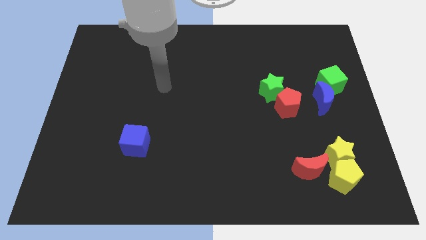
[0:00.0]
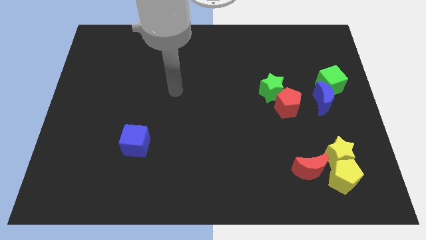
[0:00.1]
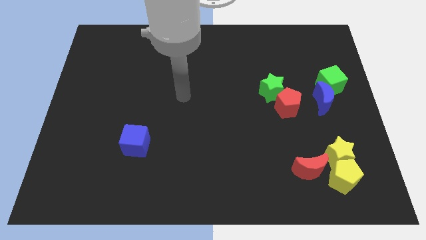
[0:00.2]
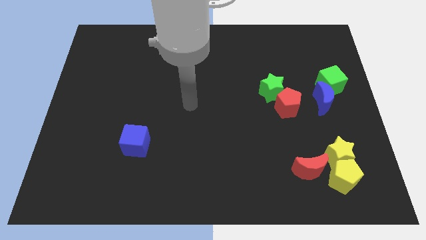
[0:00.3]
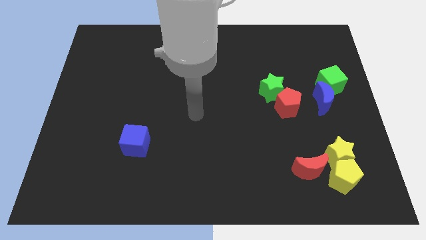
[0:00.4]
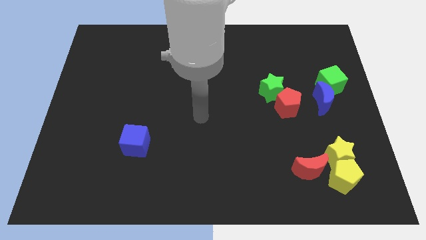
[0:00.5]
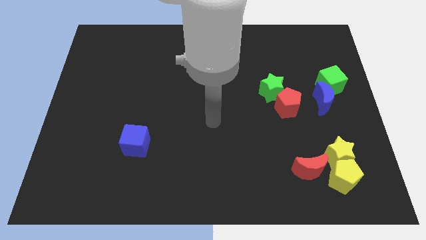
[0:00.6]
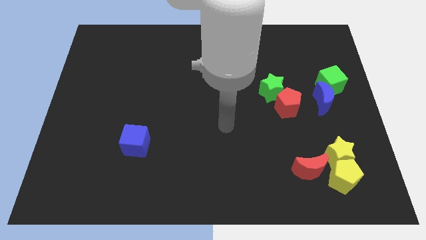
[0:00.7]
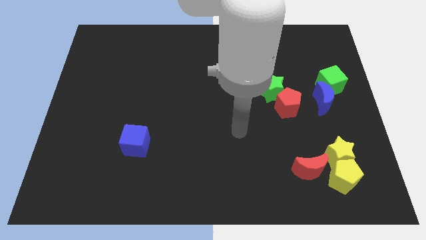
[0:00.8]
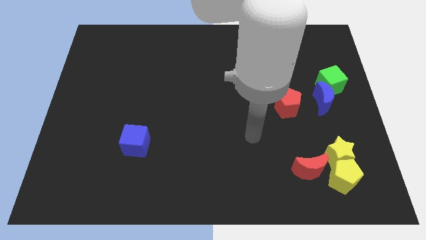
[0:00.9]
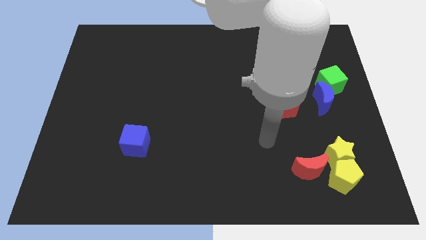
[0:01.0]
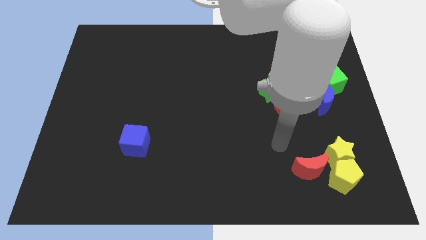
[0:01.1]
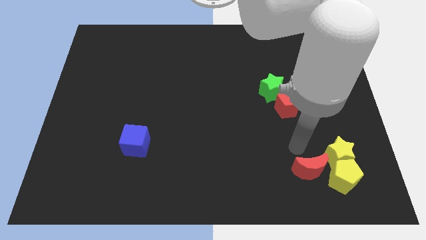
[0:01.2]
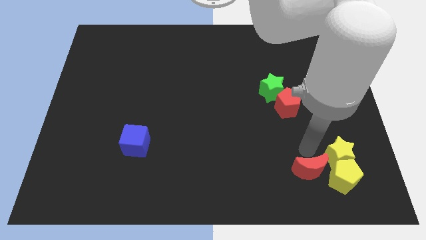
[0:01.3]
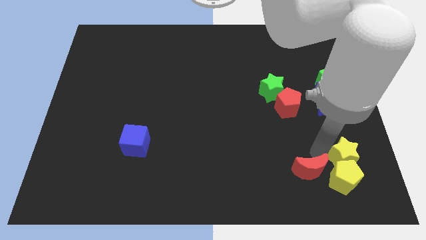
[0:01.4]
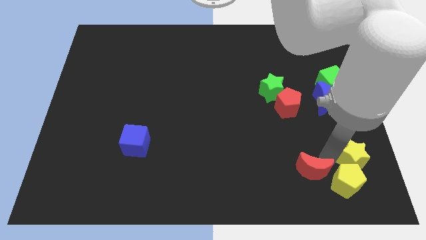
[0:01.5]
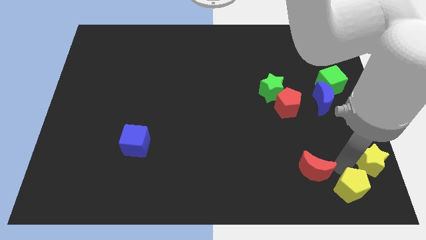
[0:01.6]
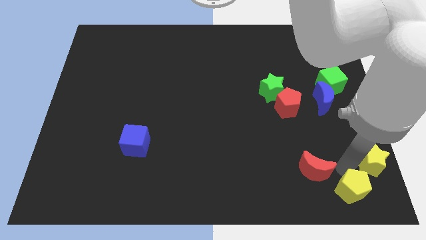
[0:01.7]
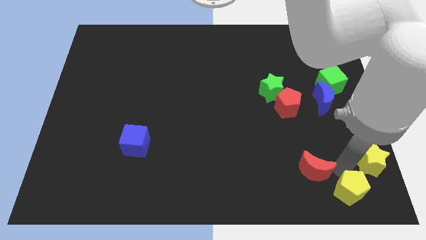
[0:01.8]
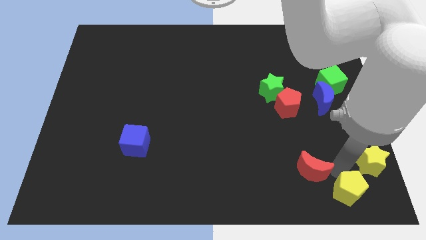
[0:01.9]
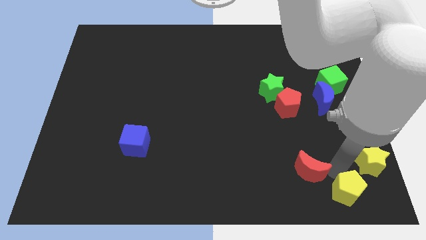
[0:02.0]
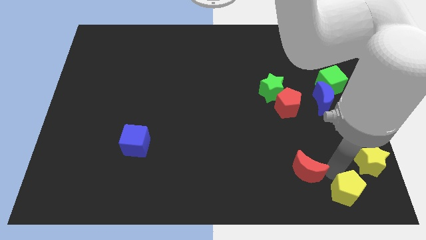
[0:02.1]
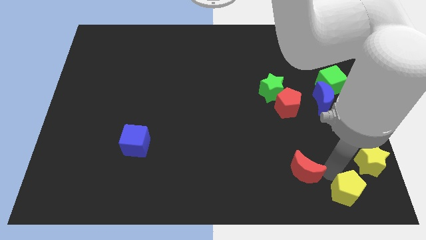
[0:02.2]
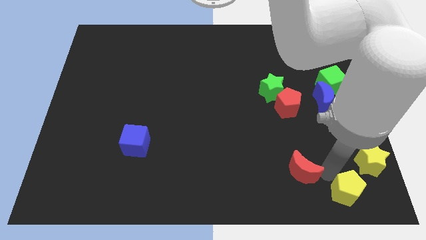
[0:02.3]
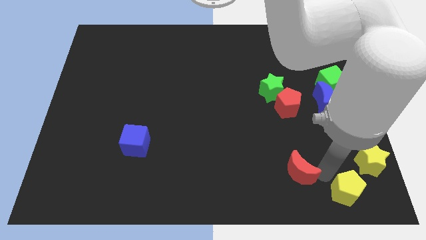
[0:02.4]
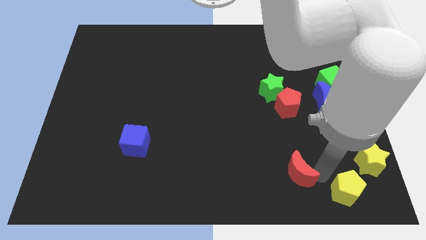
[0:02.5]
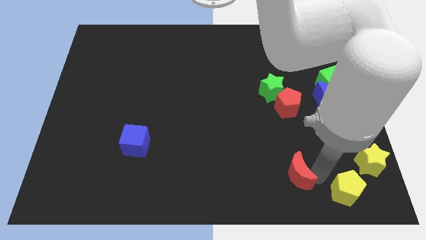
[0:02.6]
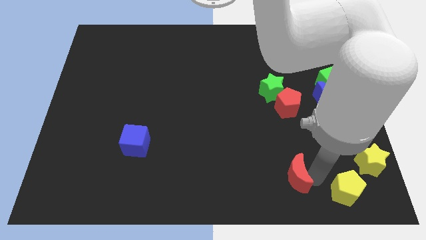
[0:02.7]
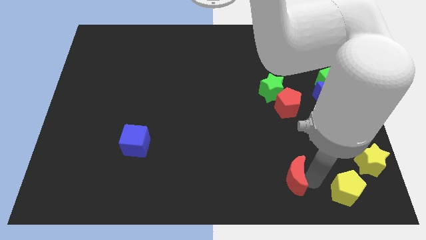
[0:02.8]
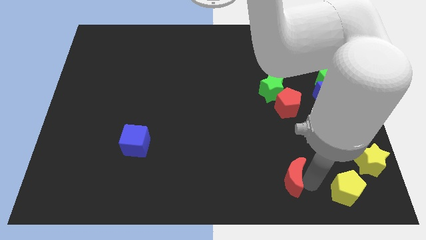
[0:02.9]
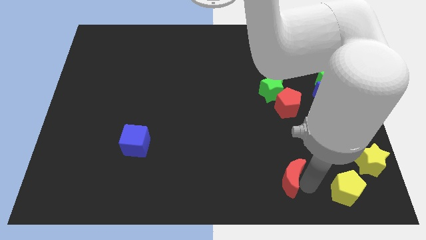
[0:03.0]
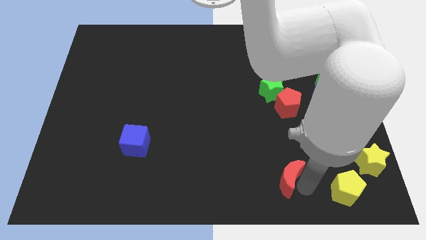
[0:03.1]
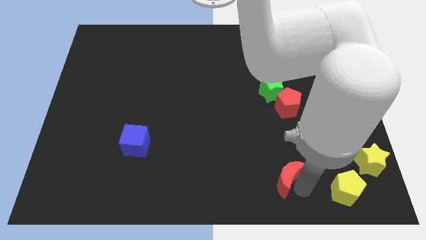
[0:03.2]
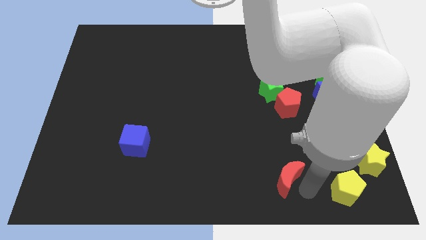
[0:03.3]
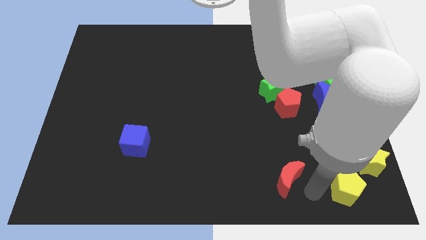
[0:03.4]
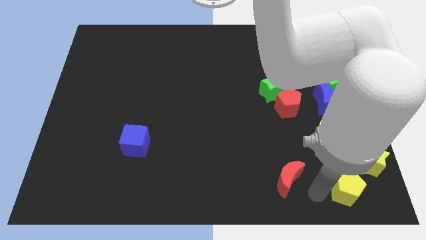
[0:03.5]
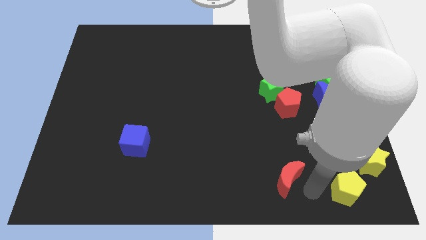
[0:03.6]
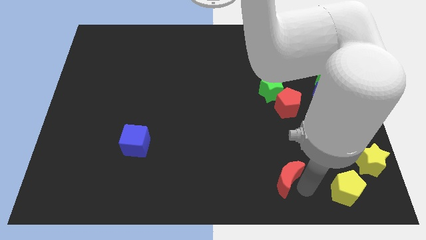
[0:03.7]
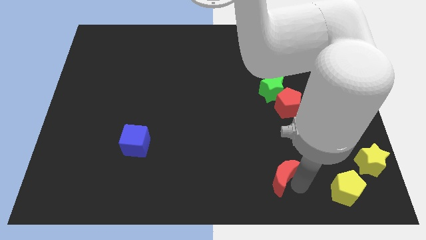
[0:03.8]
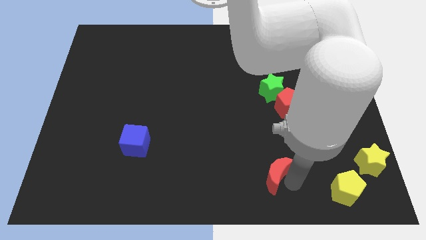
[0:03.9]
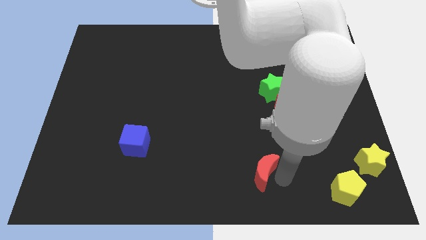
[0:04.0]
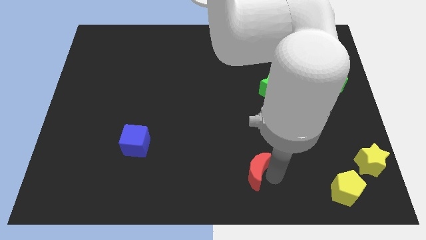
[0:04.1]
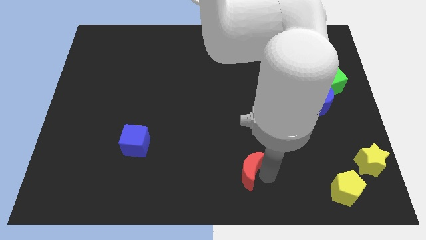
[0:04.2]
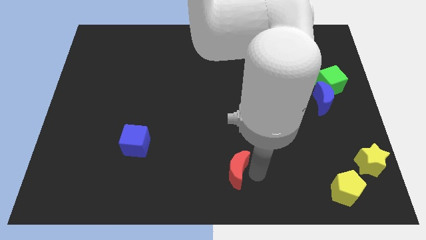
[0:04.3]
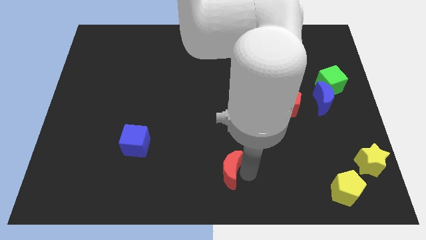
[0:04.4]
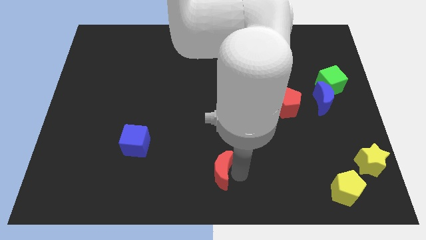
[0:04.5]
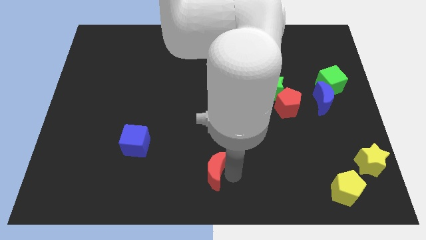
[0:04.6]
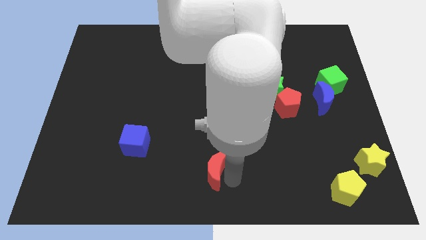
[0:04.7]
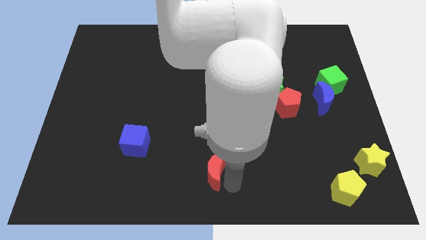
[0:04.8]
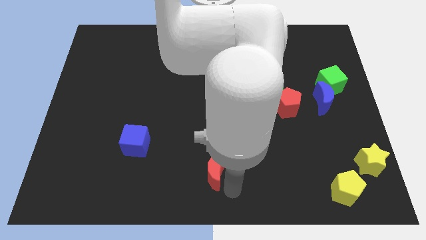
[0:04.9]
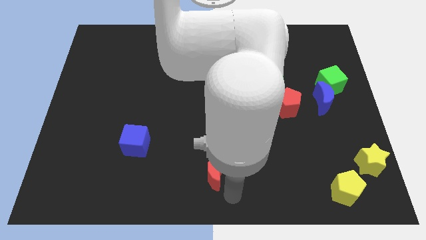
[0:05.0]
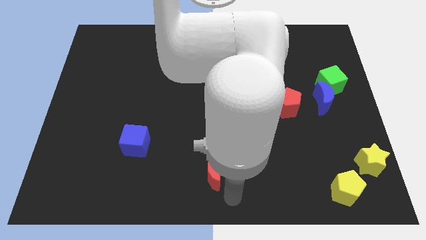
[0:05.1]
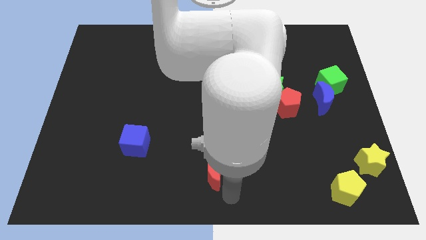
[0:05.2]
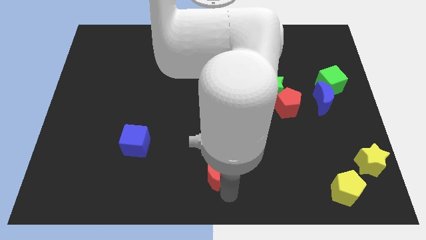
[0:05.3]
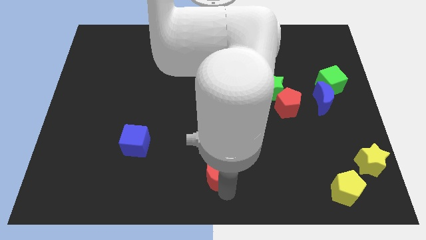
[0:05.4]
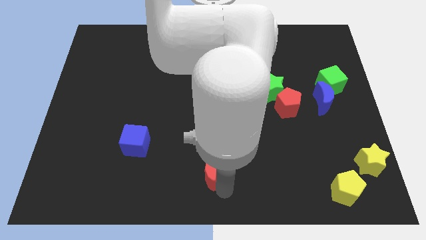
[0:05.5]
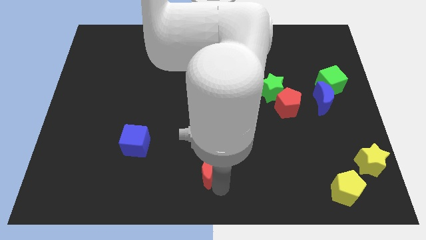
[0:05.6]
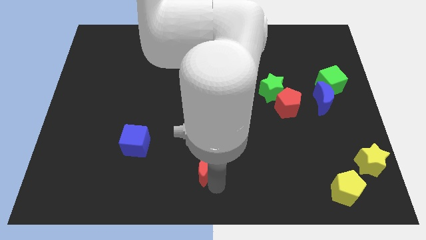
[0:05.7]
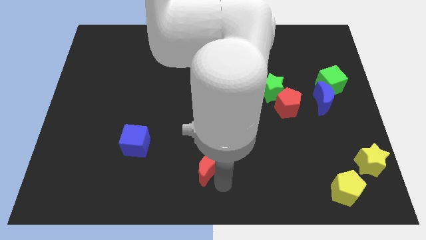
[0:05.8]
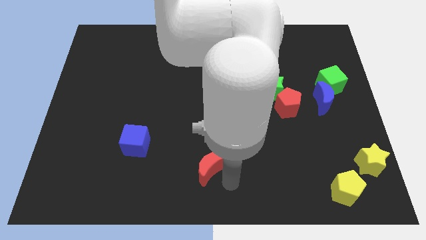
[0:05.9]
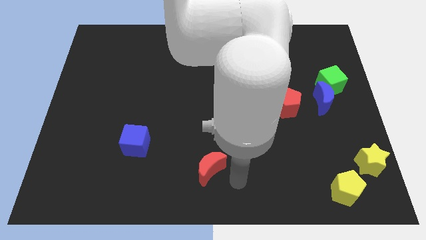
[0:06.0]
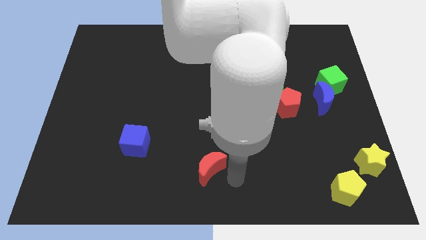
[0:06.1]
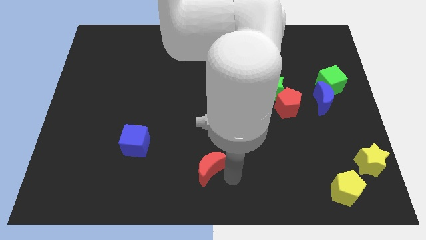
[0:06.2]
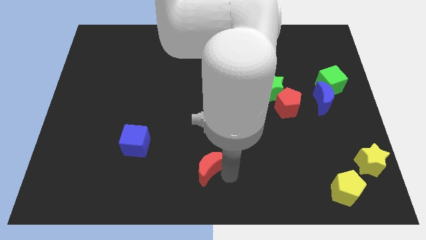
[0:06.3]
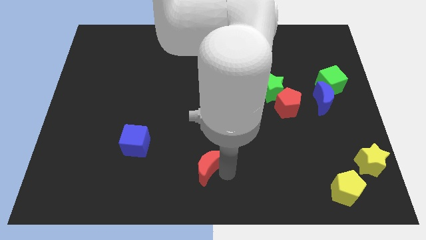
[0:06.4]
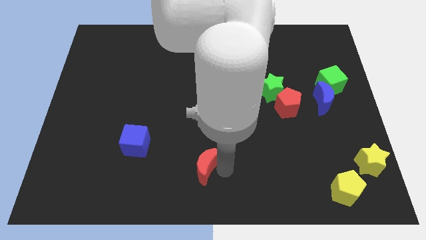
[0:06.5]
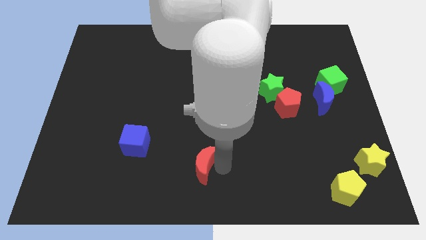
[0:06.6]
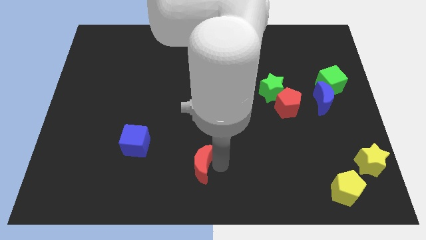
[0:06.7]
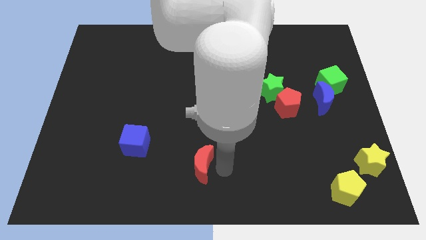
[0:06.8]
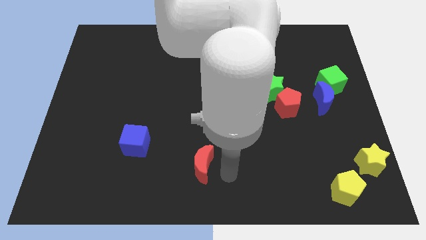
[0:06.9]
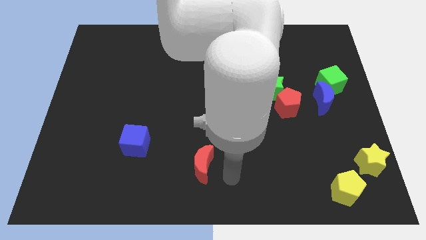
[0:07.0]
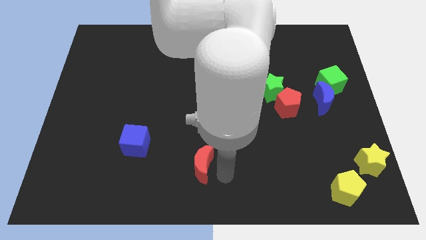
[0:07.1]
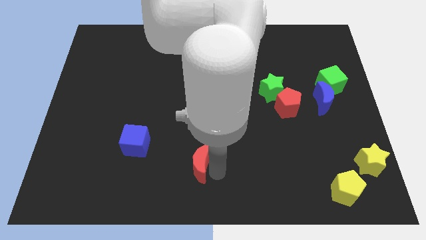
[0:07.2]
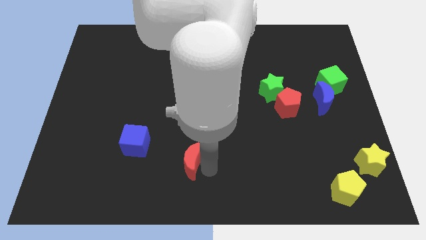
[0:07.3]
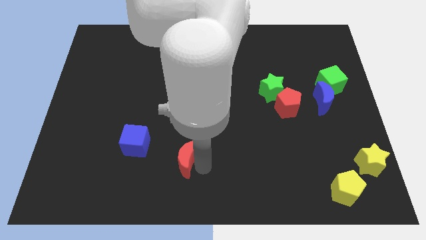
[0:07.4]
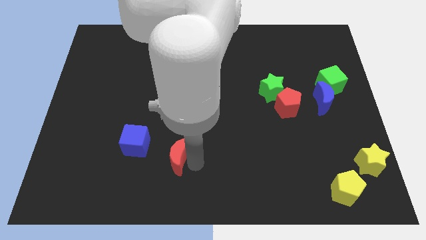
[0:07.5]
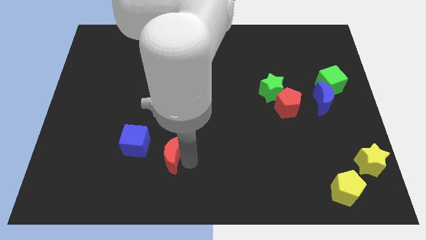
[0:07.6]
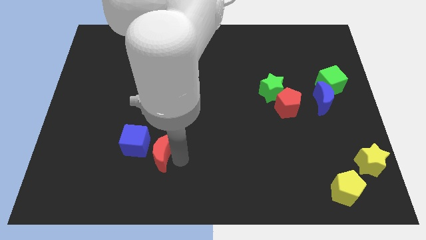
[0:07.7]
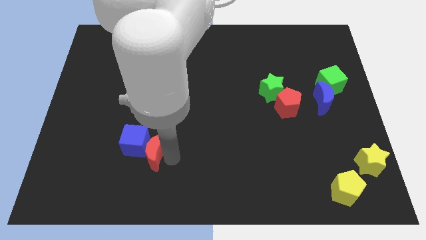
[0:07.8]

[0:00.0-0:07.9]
put the red moon towards the blue cube
